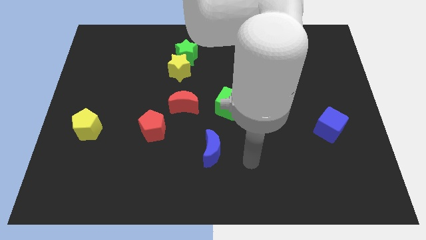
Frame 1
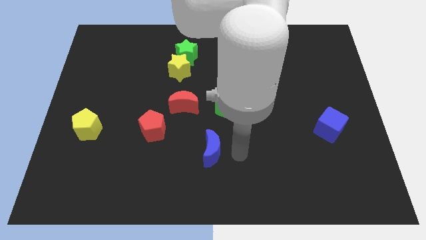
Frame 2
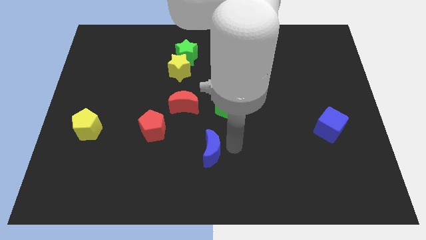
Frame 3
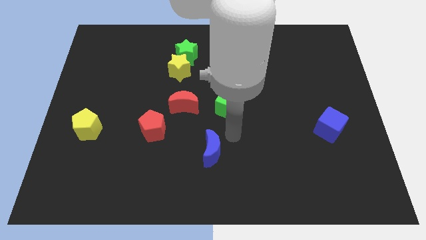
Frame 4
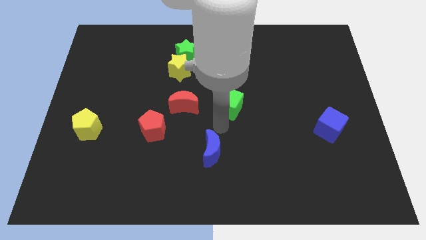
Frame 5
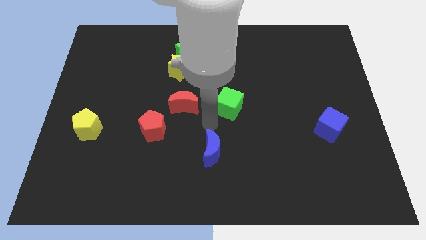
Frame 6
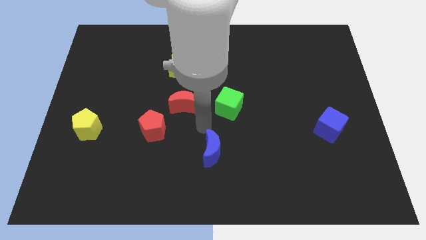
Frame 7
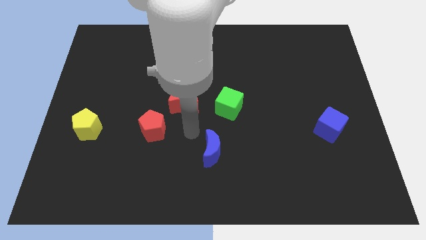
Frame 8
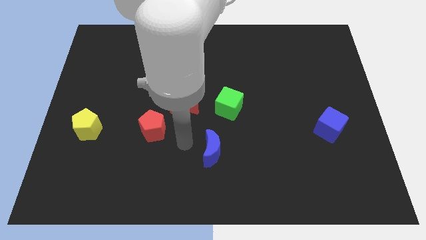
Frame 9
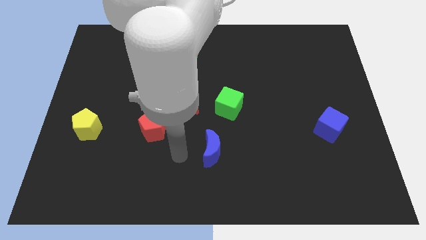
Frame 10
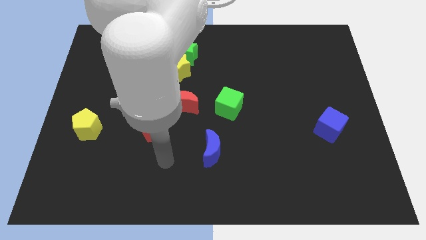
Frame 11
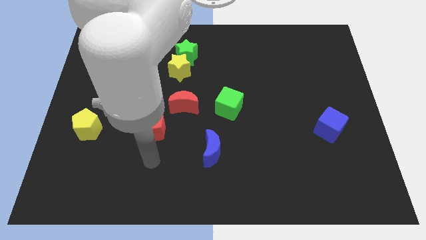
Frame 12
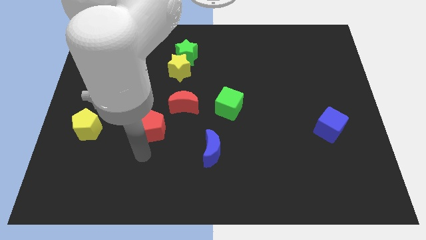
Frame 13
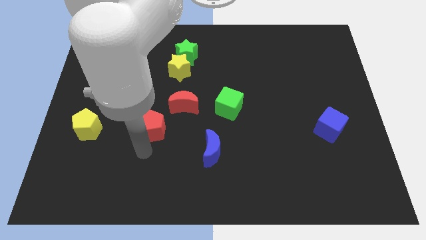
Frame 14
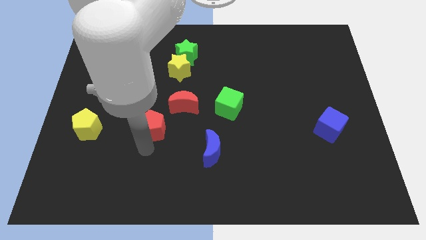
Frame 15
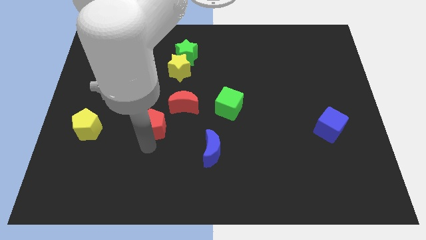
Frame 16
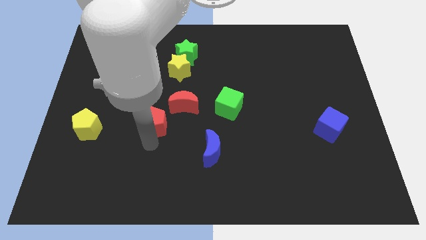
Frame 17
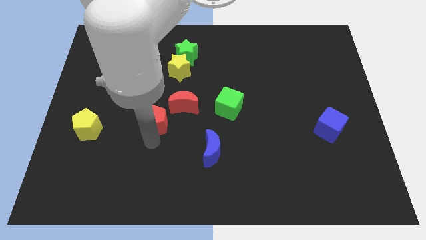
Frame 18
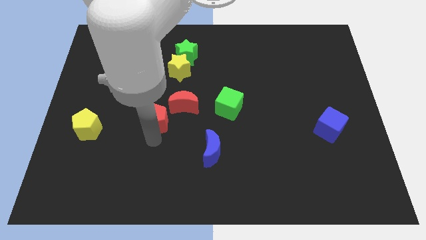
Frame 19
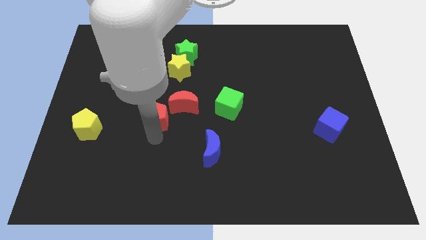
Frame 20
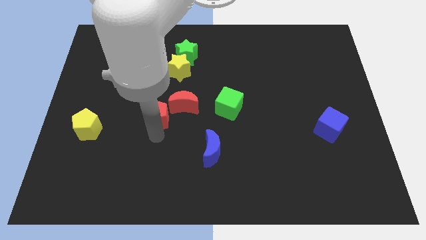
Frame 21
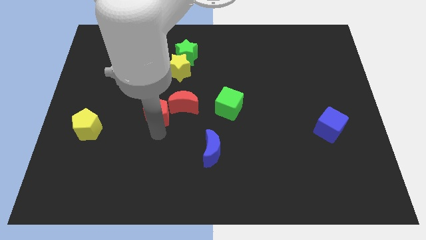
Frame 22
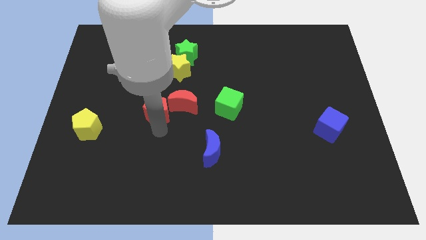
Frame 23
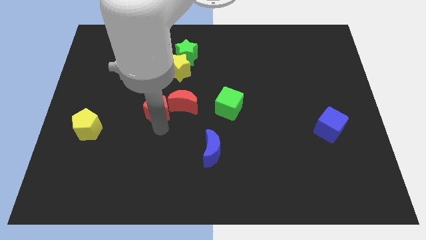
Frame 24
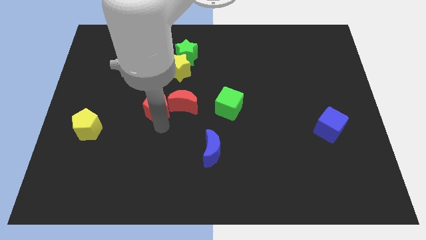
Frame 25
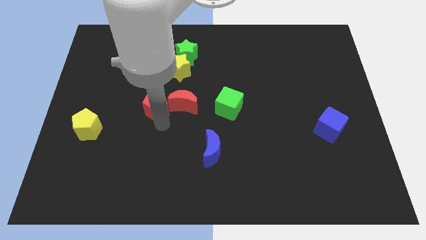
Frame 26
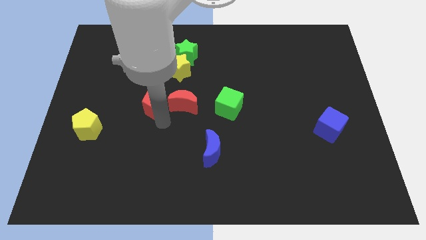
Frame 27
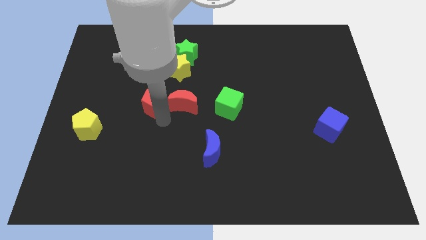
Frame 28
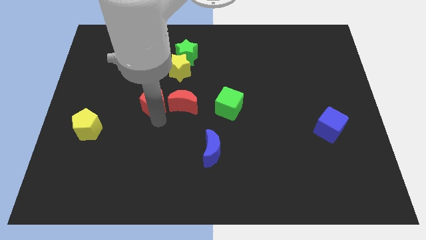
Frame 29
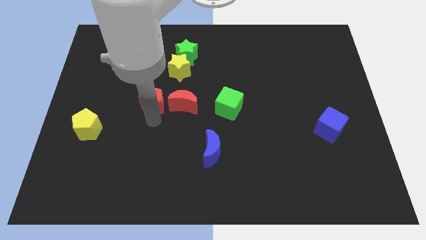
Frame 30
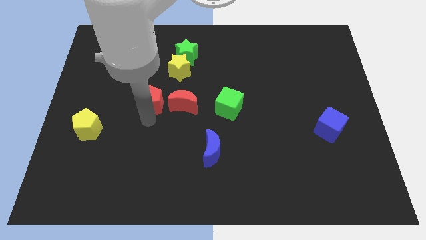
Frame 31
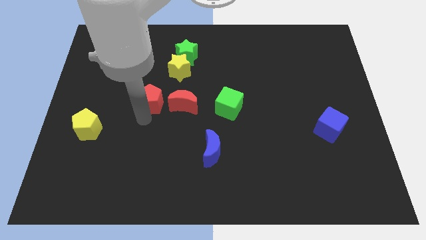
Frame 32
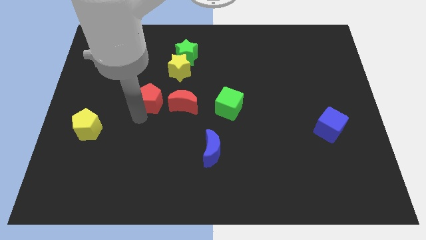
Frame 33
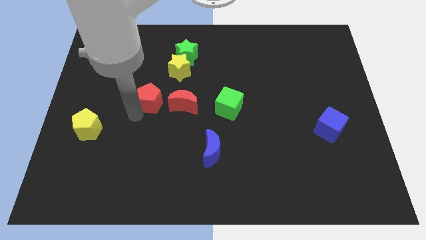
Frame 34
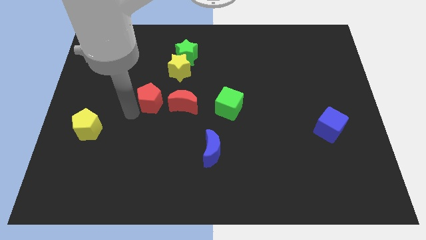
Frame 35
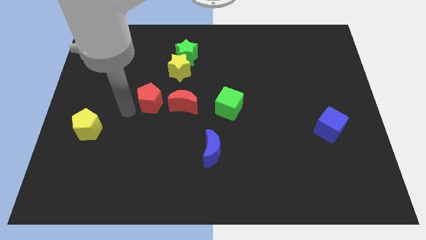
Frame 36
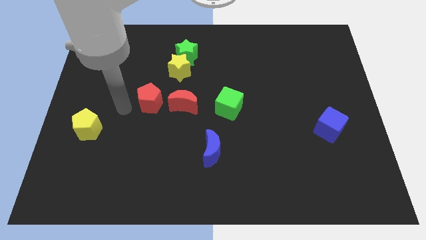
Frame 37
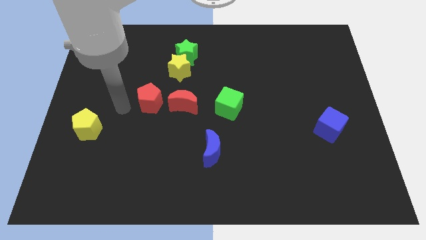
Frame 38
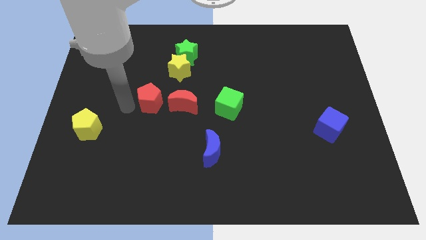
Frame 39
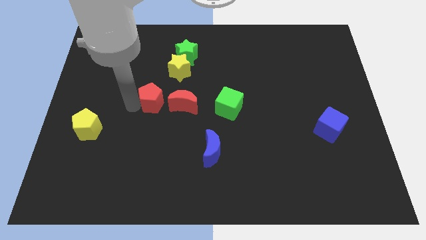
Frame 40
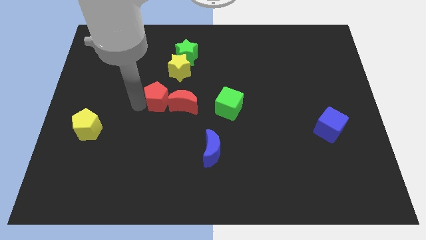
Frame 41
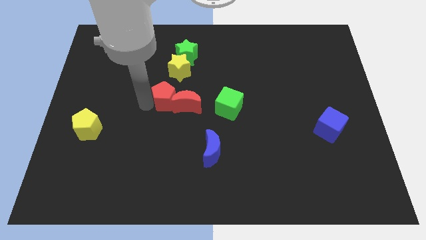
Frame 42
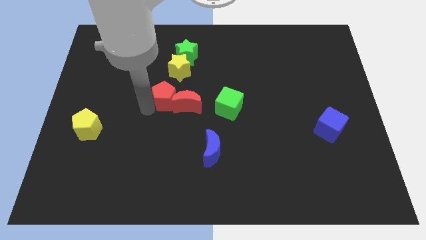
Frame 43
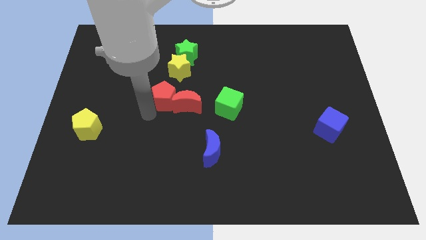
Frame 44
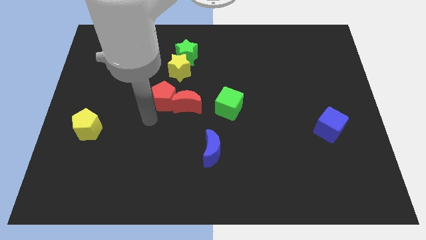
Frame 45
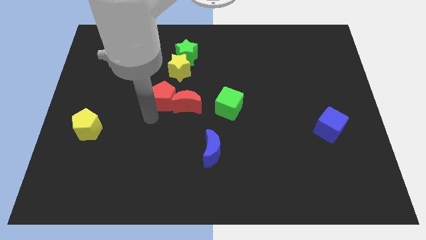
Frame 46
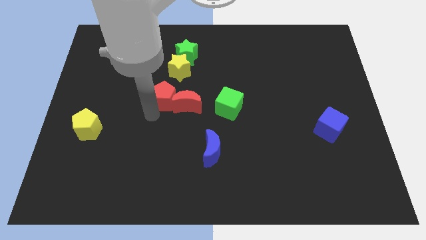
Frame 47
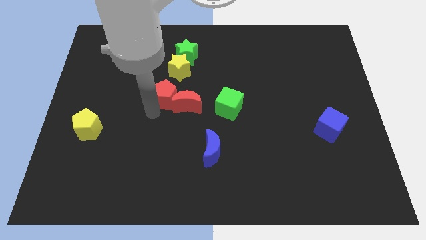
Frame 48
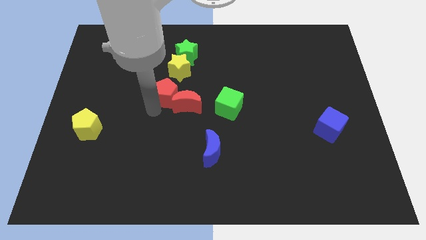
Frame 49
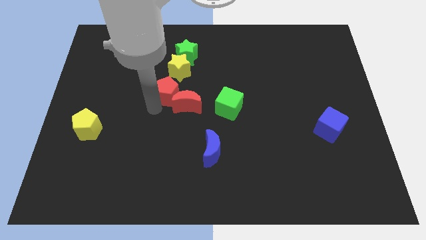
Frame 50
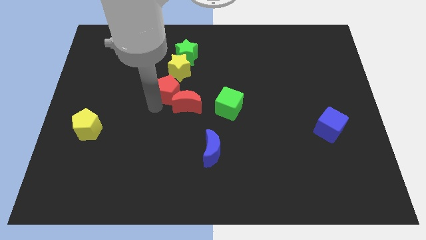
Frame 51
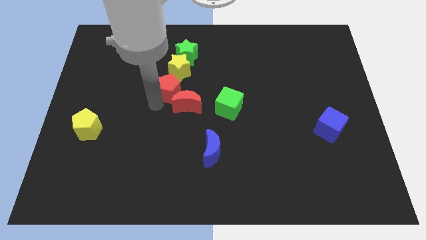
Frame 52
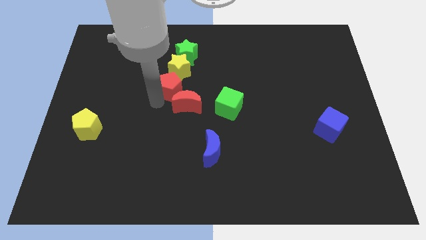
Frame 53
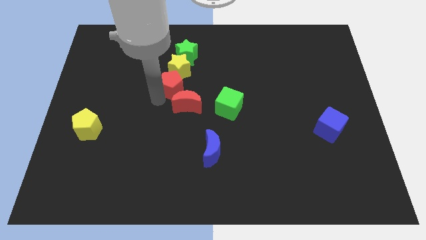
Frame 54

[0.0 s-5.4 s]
move the red pentagon to the yellow star

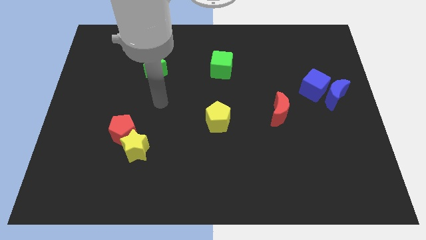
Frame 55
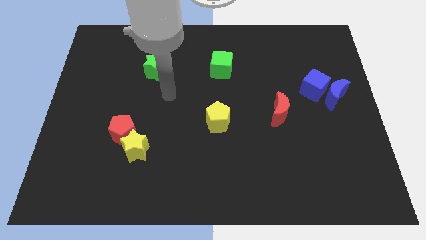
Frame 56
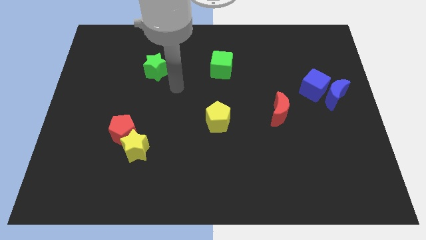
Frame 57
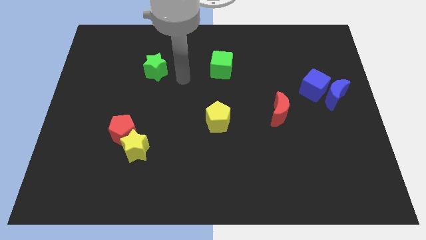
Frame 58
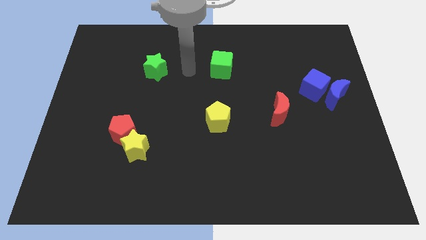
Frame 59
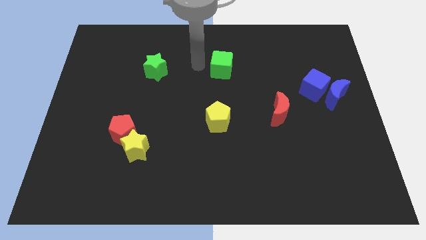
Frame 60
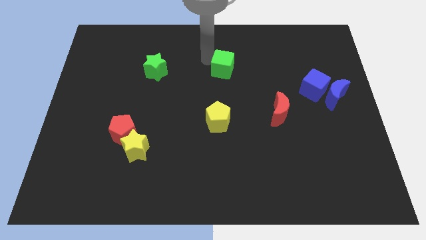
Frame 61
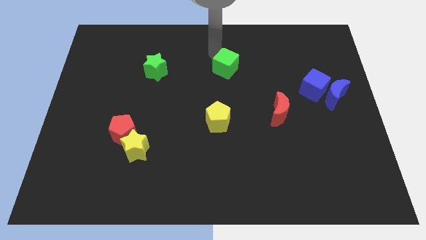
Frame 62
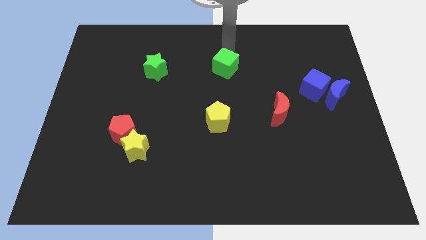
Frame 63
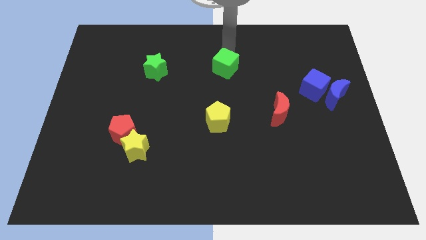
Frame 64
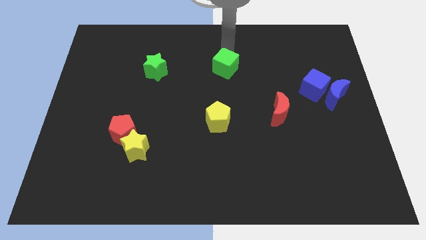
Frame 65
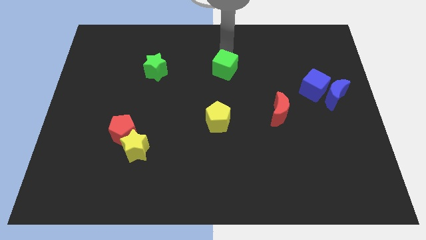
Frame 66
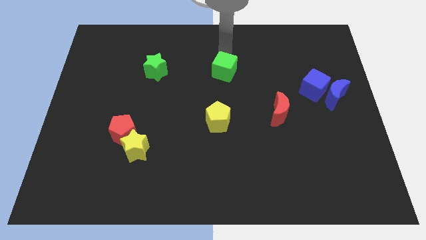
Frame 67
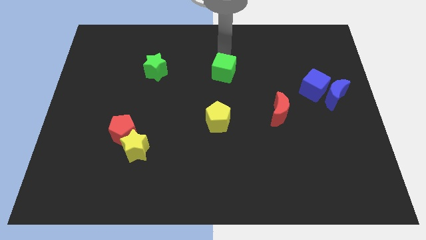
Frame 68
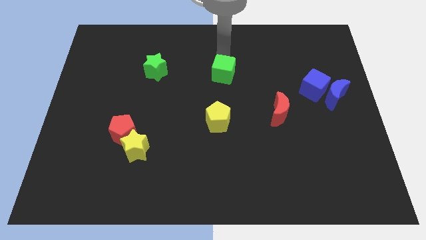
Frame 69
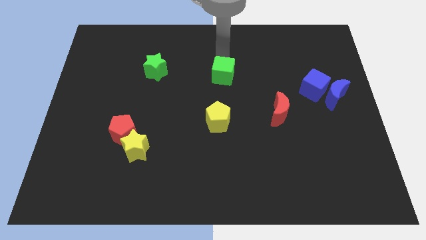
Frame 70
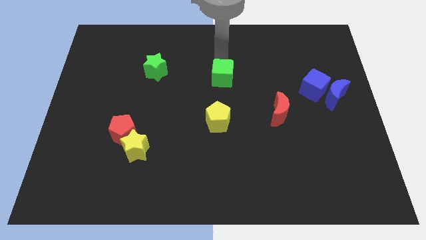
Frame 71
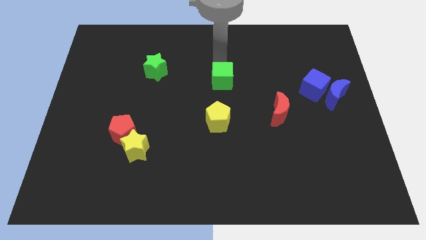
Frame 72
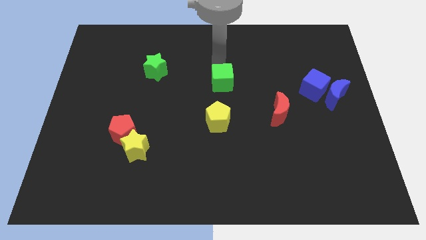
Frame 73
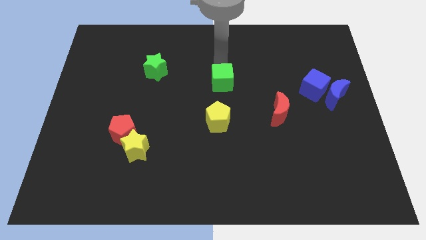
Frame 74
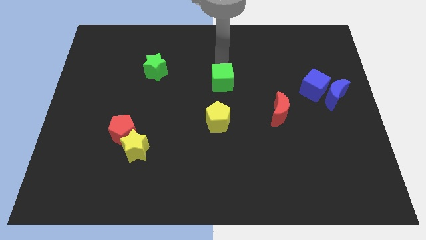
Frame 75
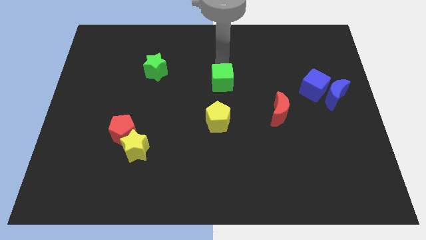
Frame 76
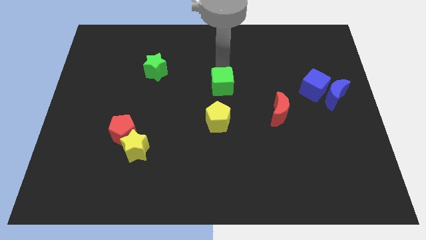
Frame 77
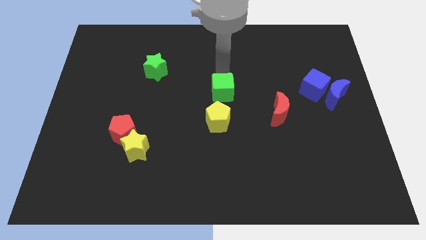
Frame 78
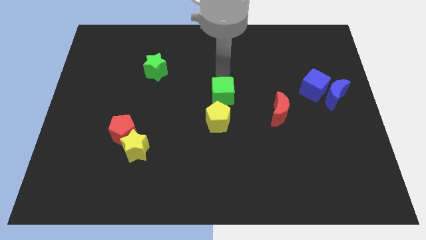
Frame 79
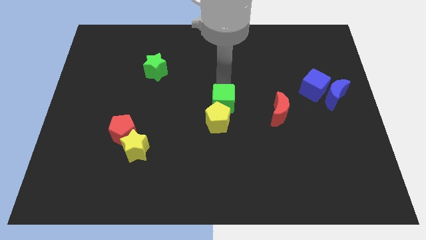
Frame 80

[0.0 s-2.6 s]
push the green cube next to the yellow pentagon
